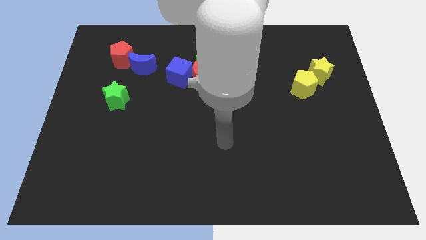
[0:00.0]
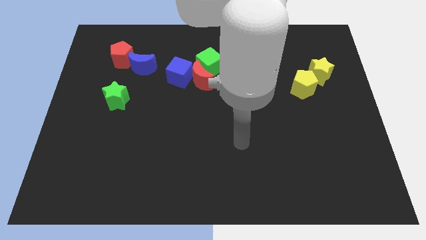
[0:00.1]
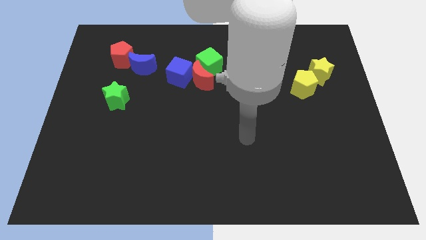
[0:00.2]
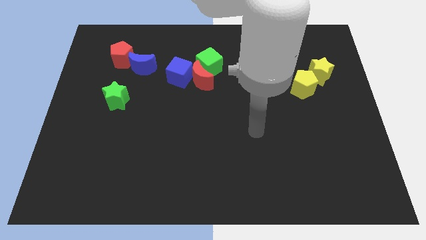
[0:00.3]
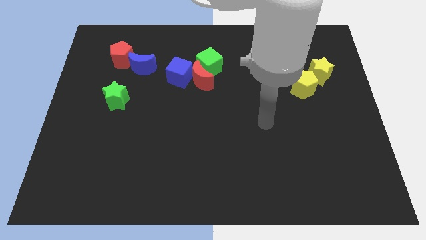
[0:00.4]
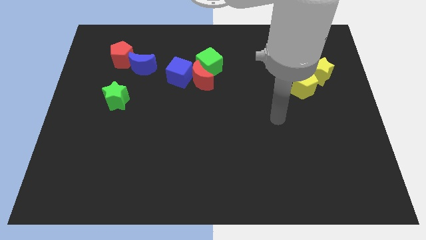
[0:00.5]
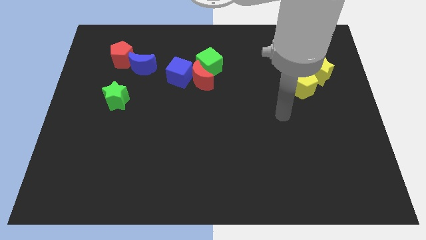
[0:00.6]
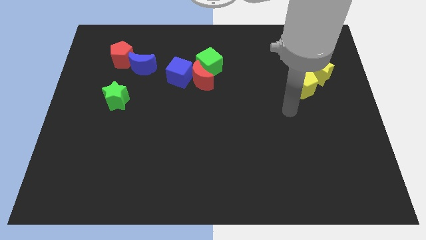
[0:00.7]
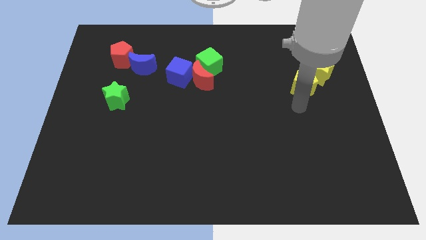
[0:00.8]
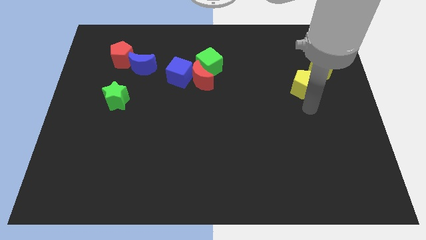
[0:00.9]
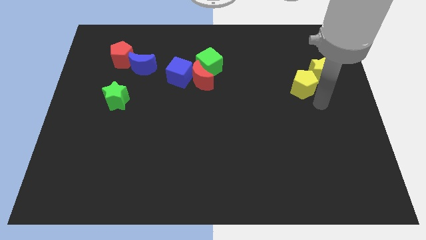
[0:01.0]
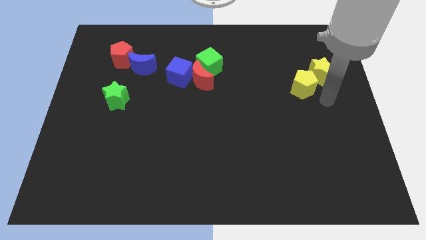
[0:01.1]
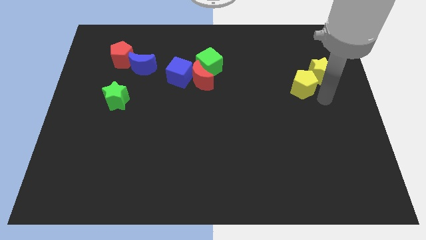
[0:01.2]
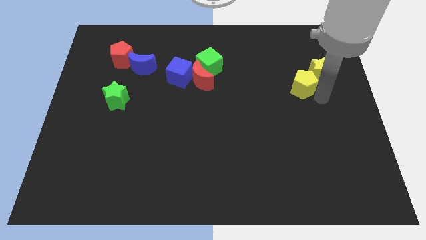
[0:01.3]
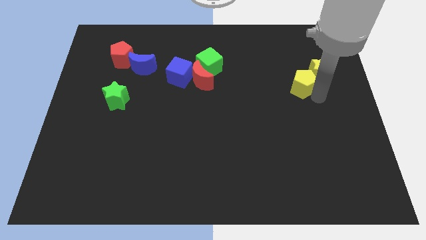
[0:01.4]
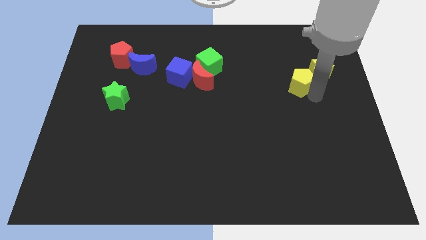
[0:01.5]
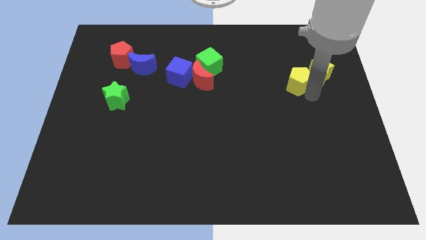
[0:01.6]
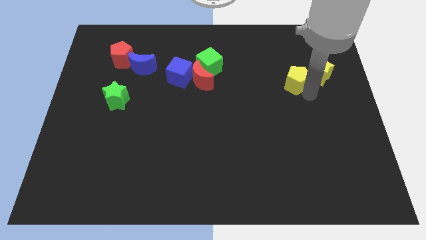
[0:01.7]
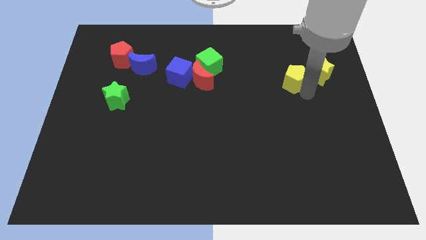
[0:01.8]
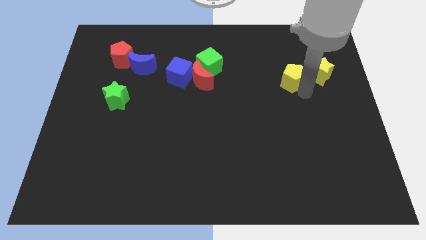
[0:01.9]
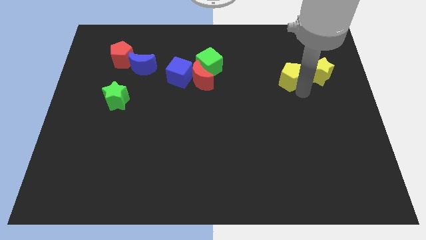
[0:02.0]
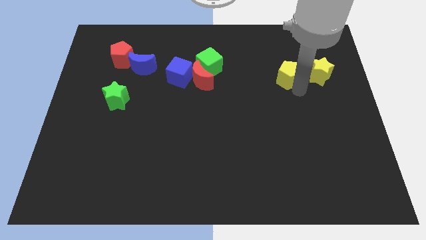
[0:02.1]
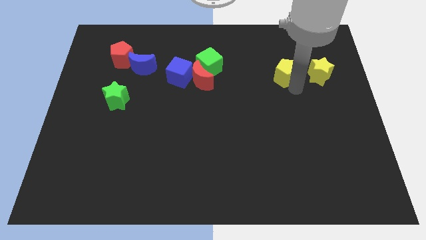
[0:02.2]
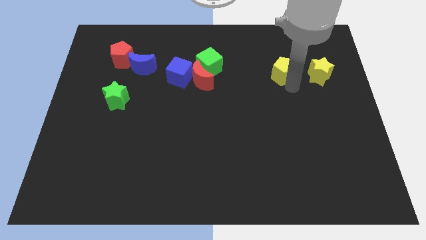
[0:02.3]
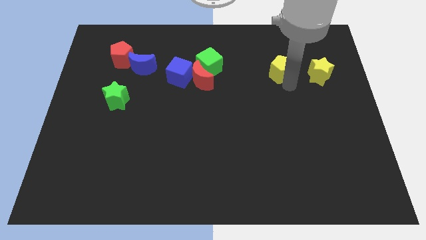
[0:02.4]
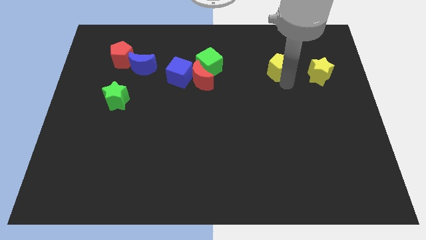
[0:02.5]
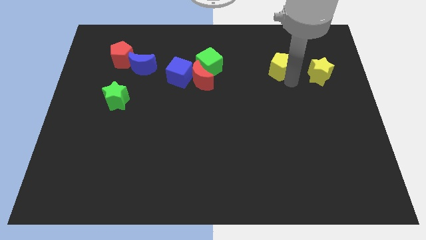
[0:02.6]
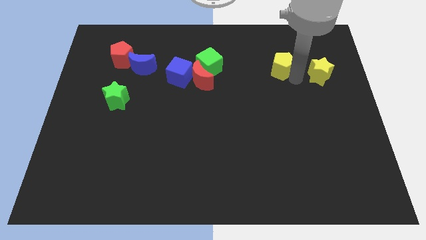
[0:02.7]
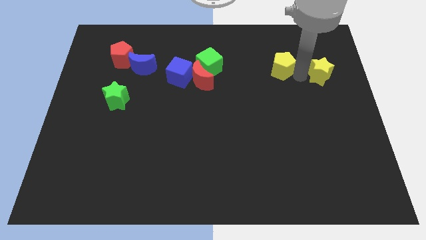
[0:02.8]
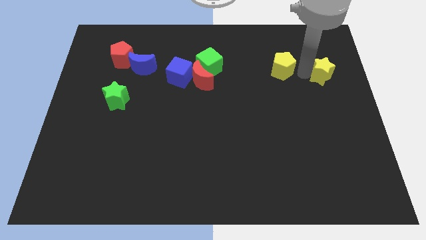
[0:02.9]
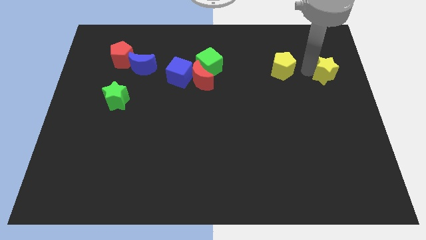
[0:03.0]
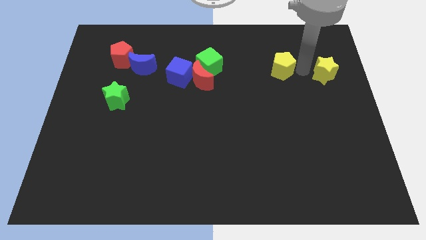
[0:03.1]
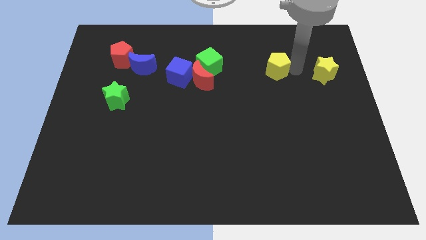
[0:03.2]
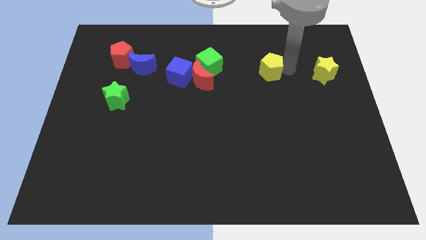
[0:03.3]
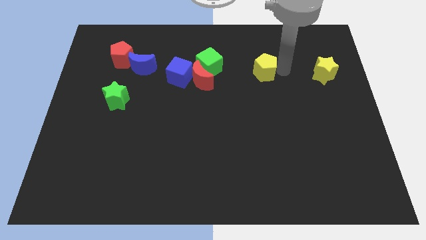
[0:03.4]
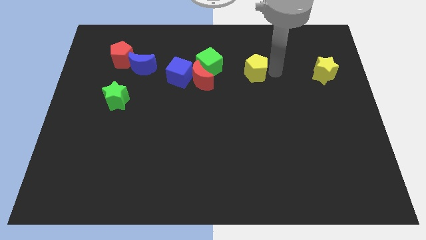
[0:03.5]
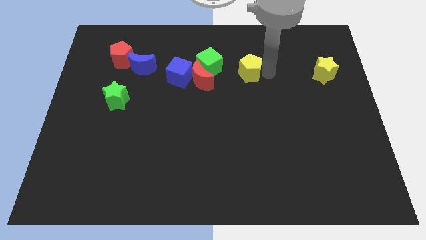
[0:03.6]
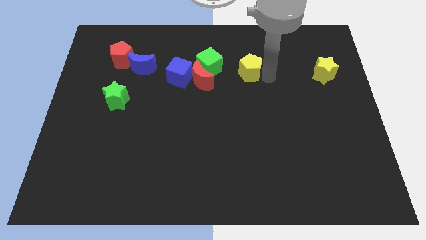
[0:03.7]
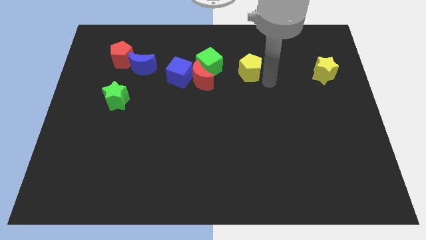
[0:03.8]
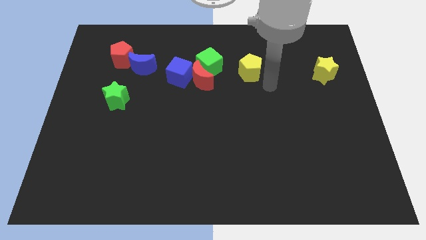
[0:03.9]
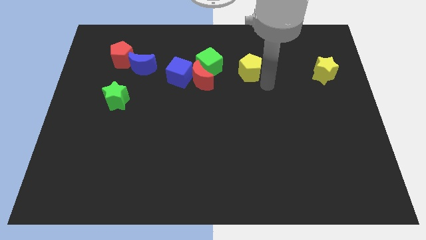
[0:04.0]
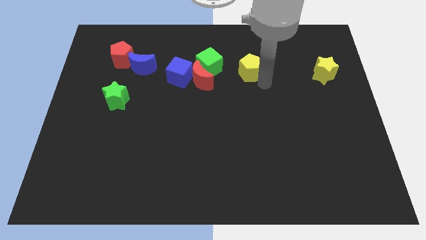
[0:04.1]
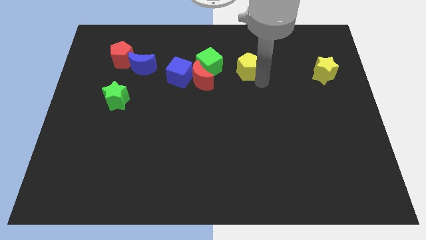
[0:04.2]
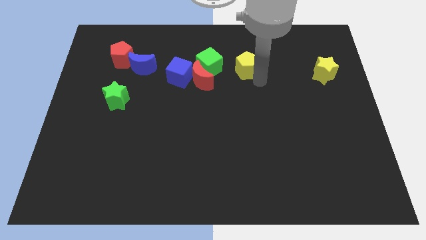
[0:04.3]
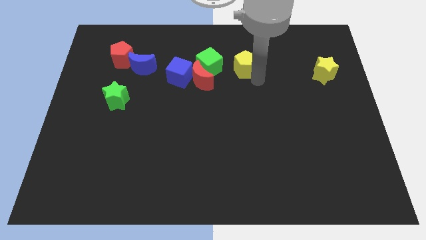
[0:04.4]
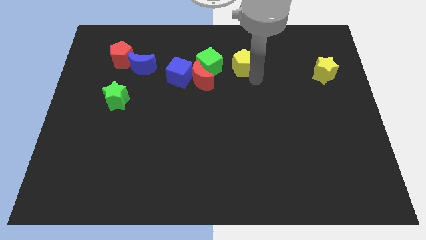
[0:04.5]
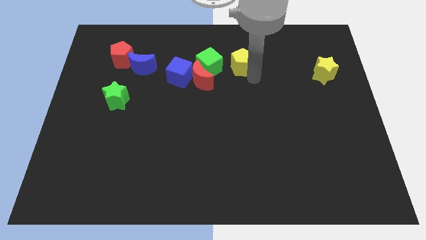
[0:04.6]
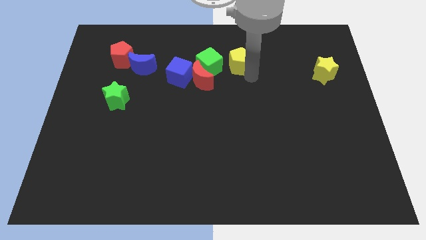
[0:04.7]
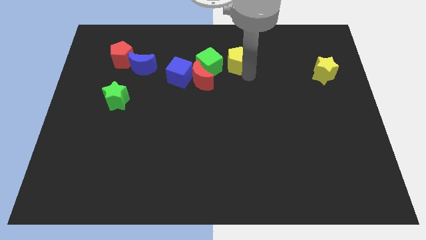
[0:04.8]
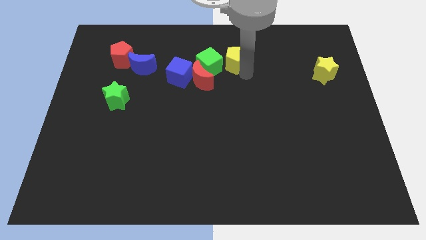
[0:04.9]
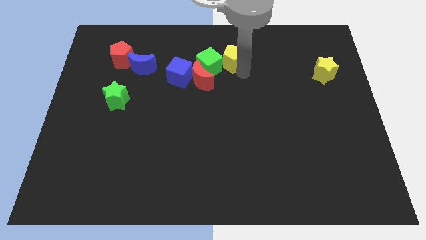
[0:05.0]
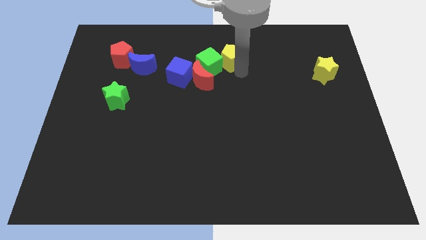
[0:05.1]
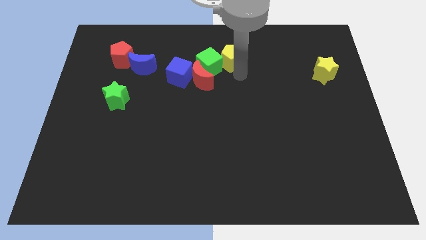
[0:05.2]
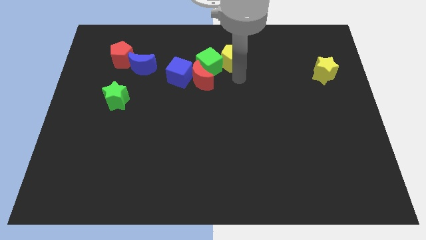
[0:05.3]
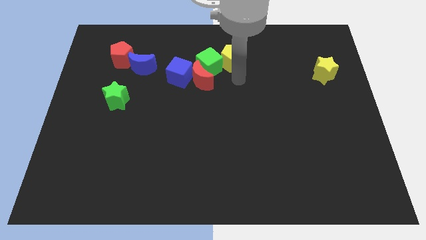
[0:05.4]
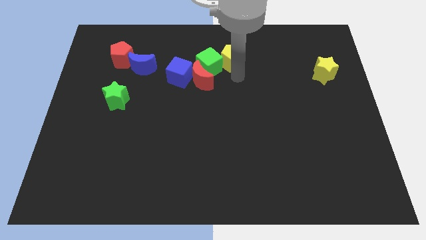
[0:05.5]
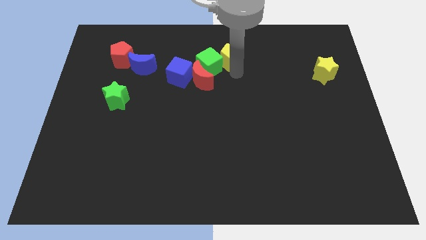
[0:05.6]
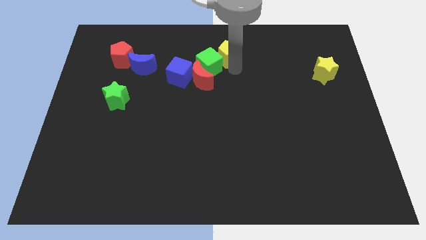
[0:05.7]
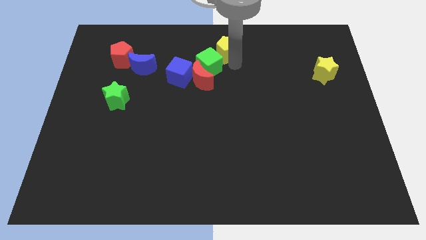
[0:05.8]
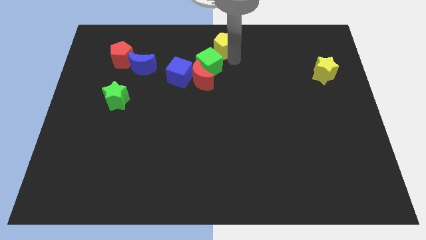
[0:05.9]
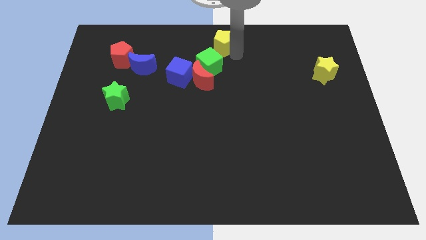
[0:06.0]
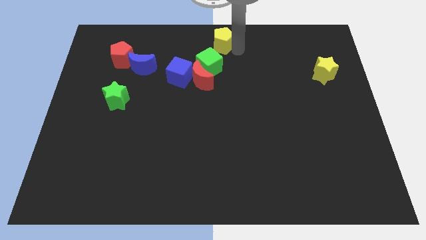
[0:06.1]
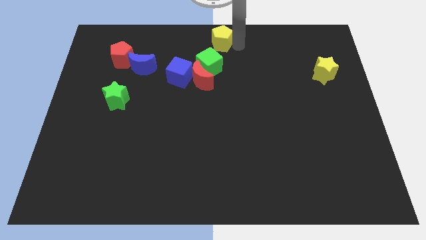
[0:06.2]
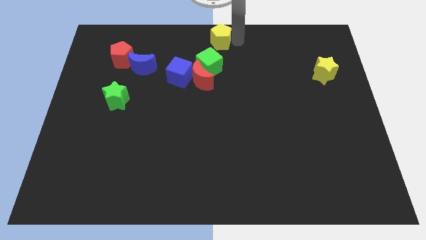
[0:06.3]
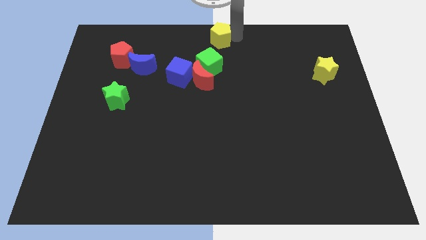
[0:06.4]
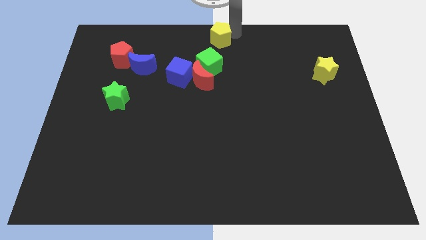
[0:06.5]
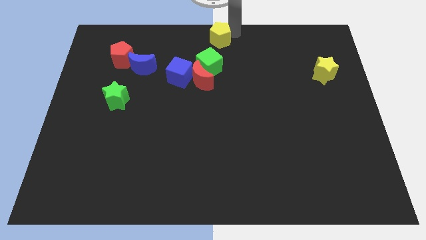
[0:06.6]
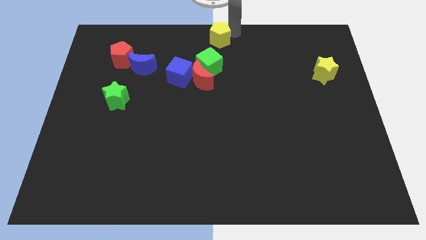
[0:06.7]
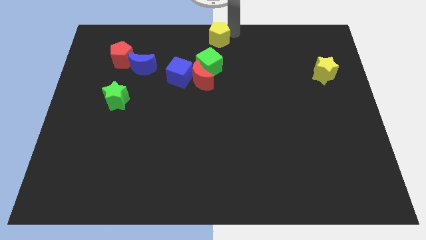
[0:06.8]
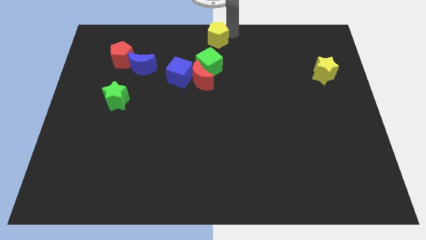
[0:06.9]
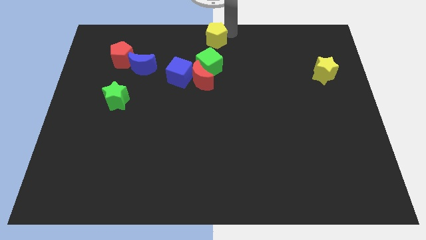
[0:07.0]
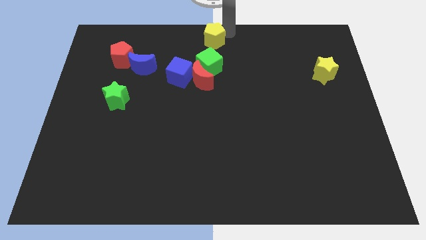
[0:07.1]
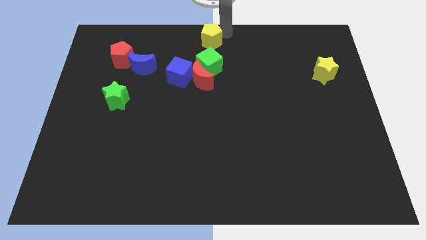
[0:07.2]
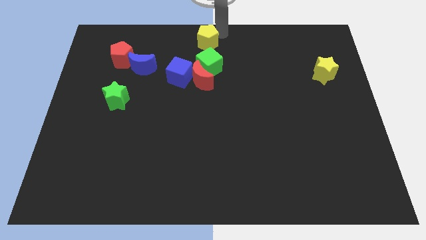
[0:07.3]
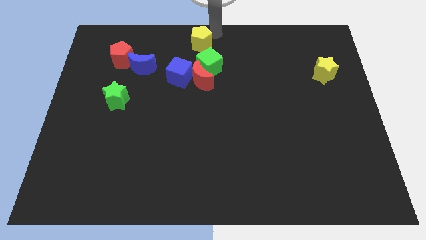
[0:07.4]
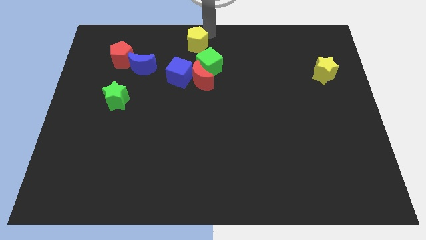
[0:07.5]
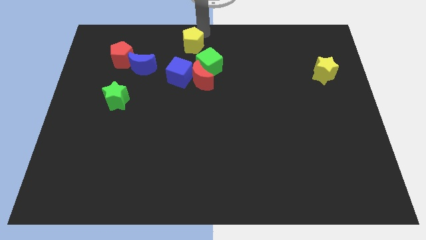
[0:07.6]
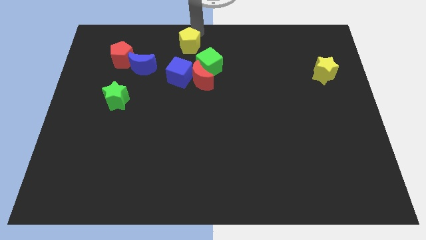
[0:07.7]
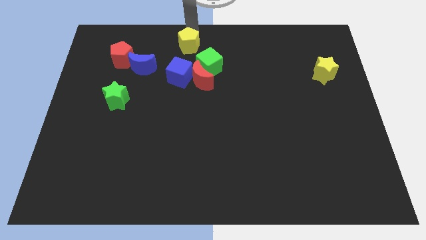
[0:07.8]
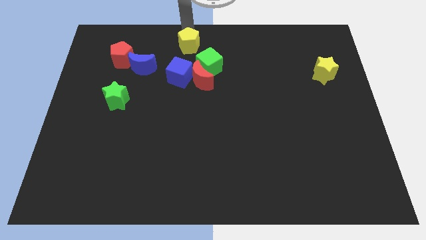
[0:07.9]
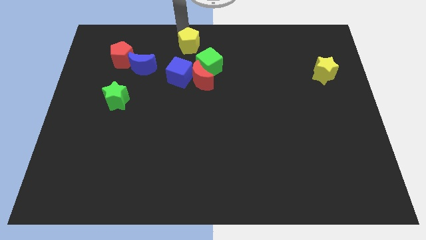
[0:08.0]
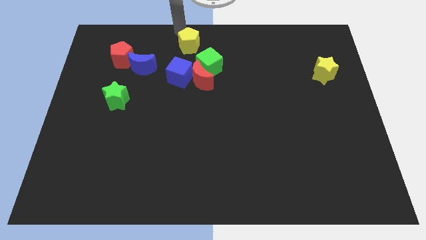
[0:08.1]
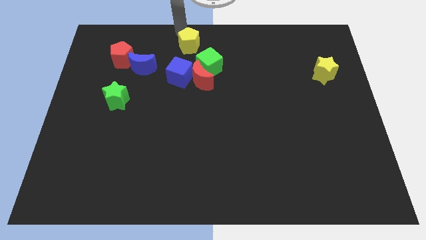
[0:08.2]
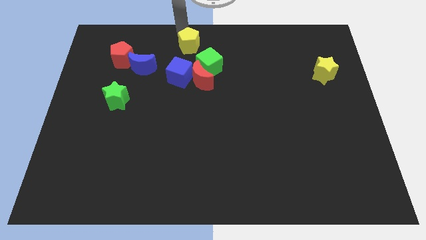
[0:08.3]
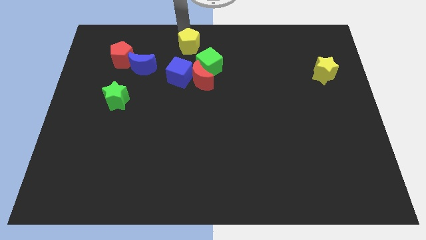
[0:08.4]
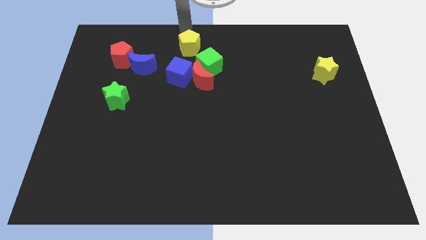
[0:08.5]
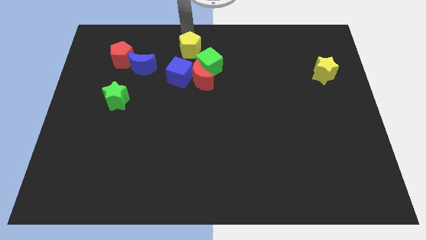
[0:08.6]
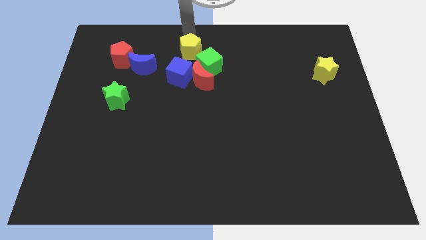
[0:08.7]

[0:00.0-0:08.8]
put the yellow pentagon diagonally up and to the right of the blue cube
